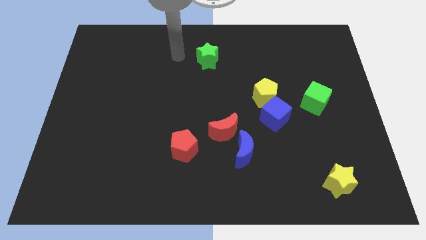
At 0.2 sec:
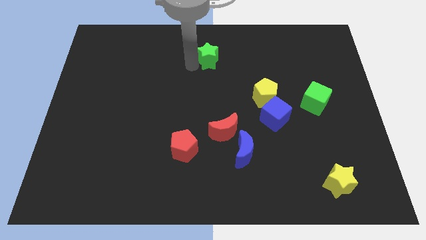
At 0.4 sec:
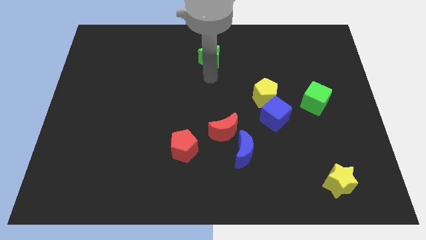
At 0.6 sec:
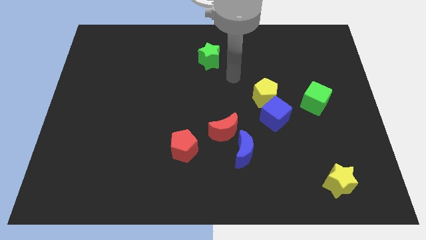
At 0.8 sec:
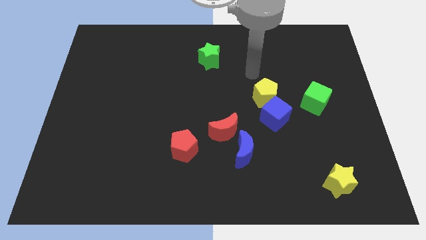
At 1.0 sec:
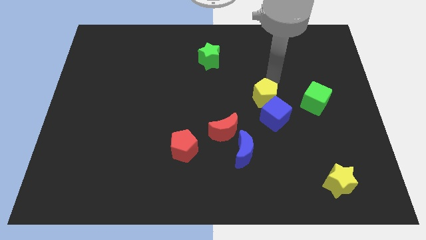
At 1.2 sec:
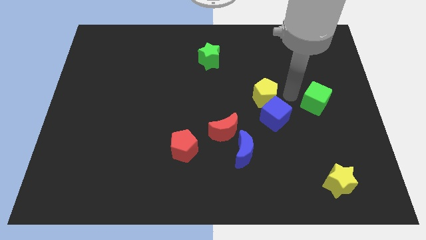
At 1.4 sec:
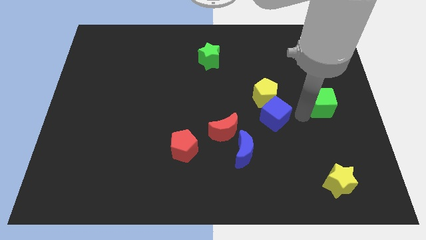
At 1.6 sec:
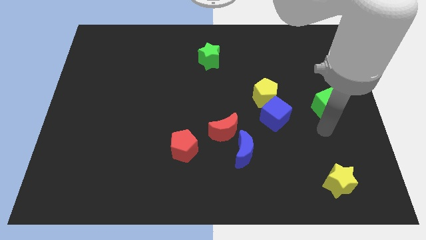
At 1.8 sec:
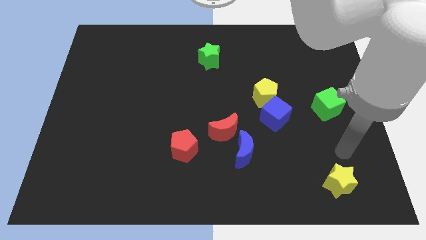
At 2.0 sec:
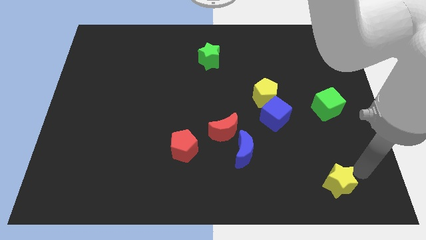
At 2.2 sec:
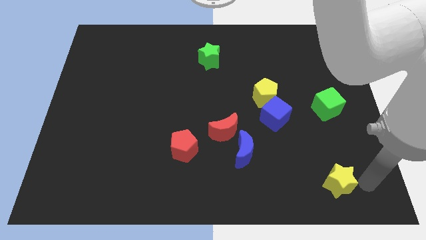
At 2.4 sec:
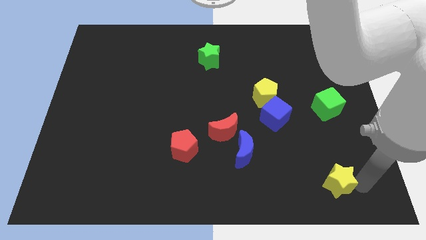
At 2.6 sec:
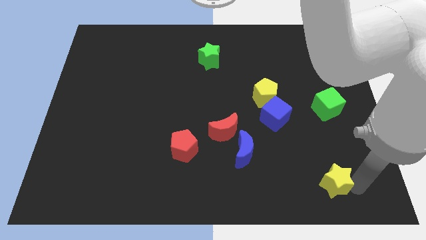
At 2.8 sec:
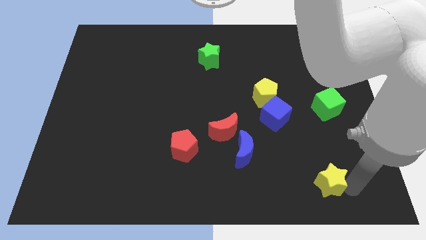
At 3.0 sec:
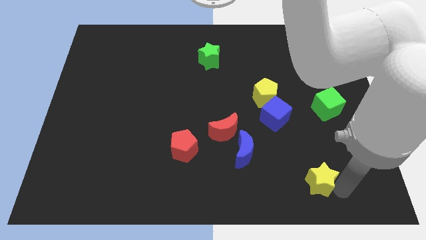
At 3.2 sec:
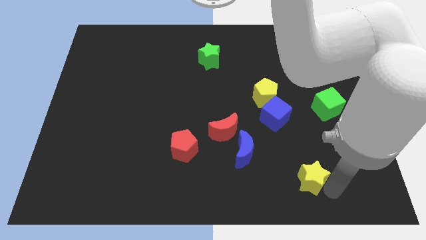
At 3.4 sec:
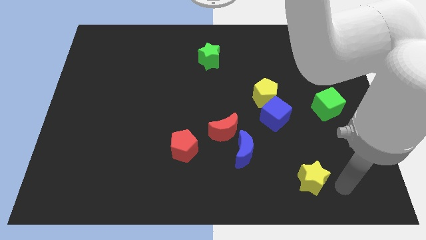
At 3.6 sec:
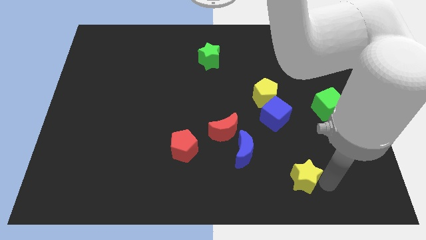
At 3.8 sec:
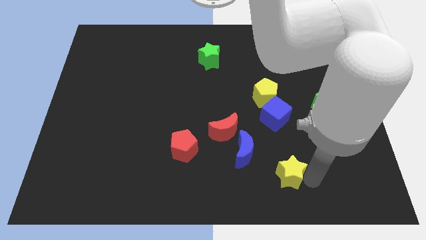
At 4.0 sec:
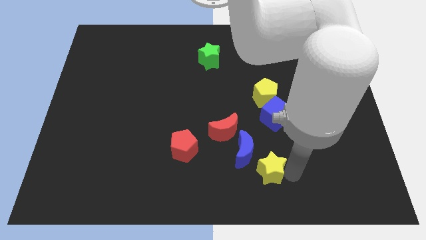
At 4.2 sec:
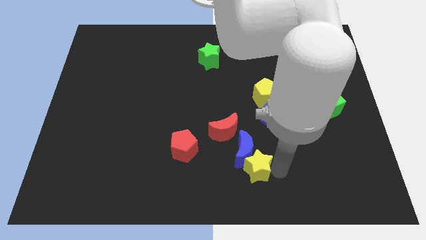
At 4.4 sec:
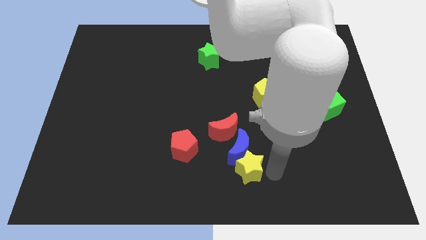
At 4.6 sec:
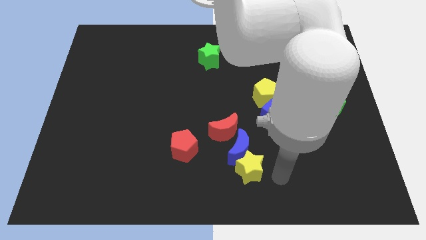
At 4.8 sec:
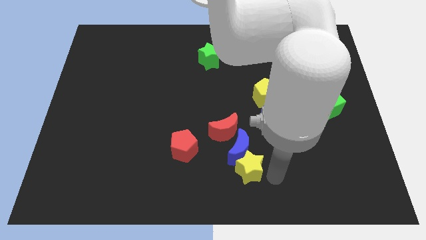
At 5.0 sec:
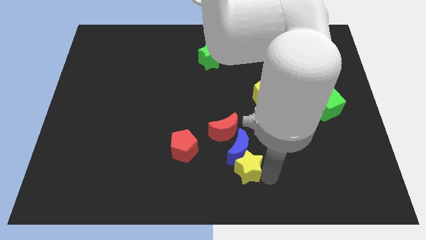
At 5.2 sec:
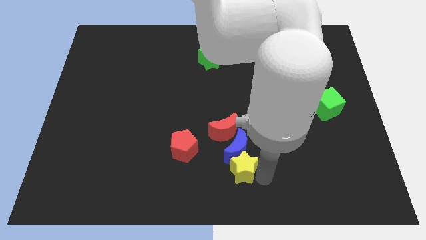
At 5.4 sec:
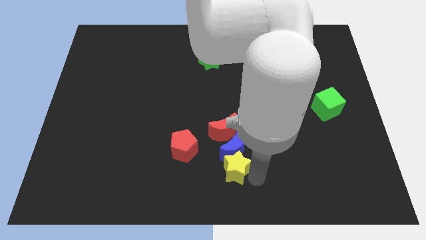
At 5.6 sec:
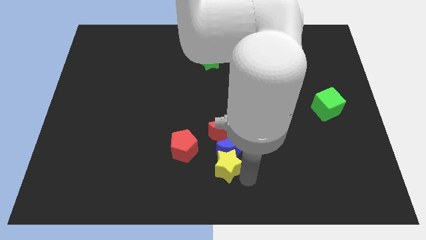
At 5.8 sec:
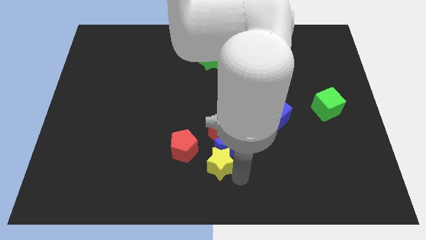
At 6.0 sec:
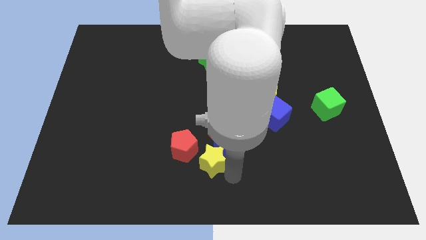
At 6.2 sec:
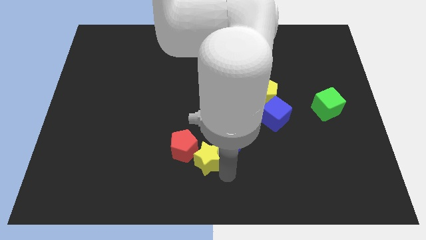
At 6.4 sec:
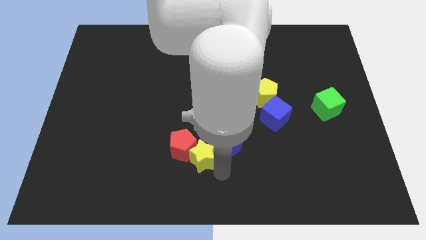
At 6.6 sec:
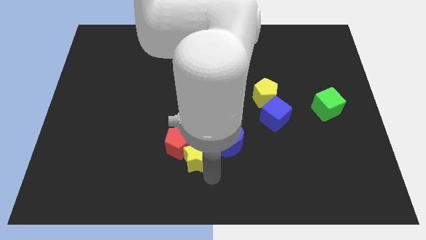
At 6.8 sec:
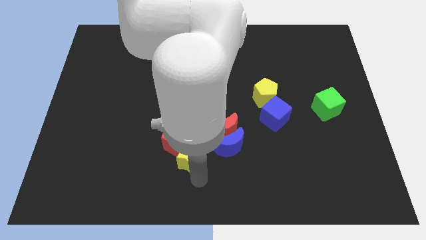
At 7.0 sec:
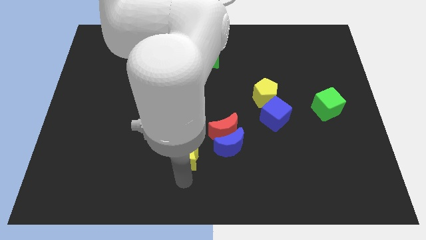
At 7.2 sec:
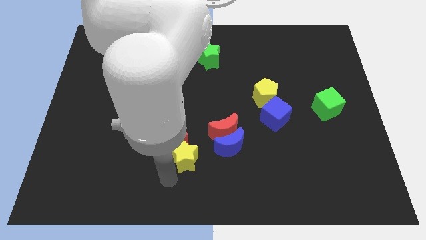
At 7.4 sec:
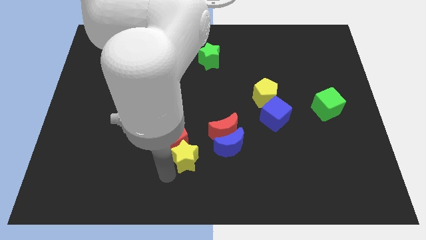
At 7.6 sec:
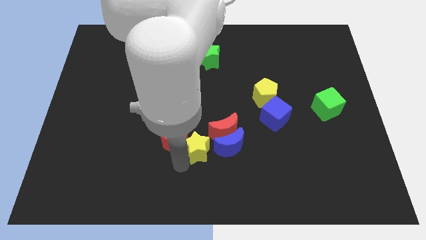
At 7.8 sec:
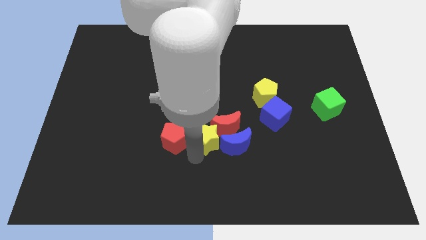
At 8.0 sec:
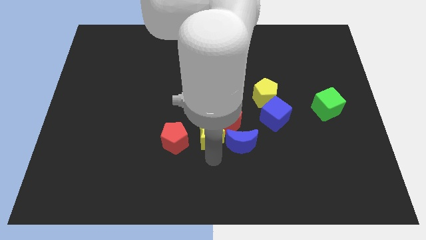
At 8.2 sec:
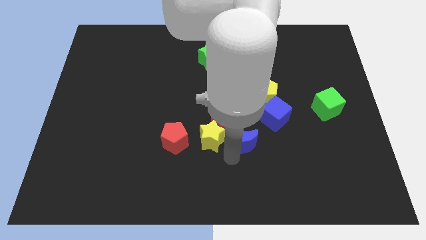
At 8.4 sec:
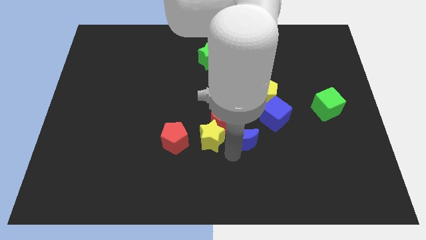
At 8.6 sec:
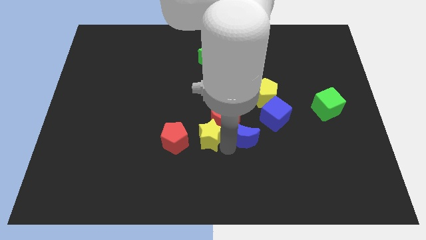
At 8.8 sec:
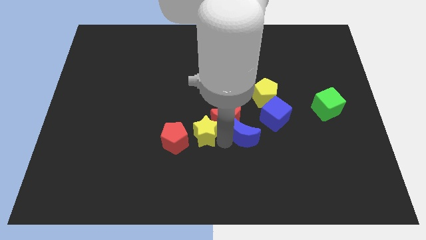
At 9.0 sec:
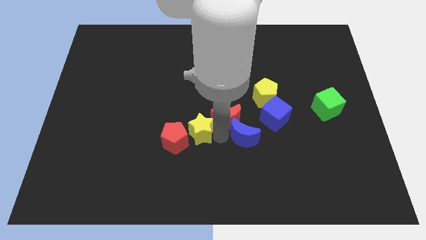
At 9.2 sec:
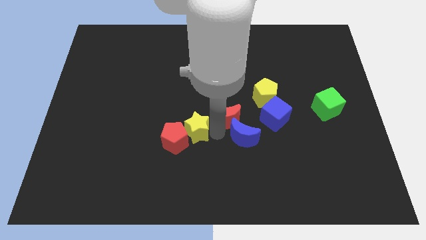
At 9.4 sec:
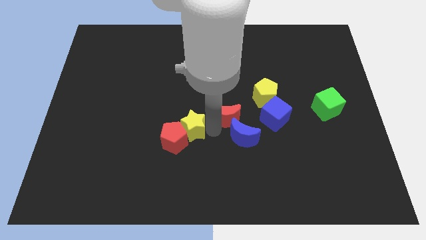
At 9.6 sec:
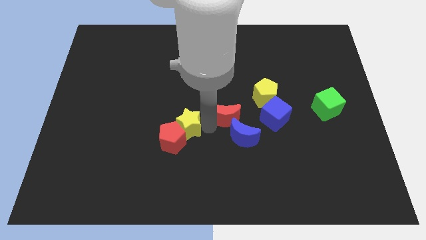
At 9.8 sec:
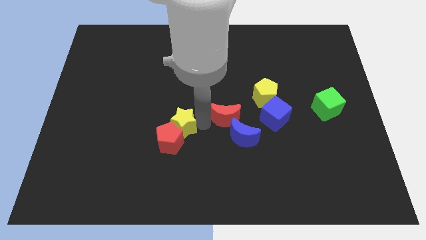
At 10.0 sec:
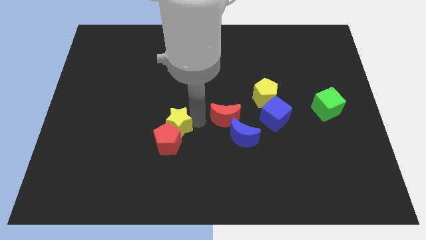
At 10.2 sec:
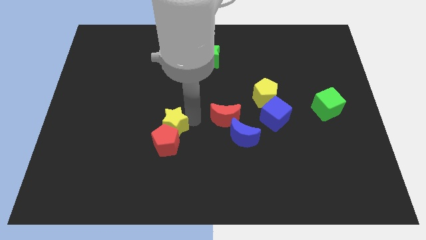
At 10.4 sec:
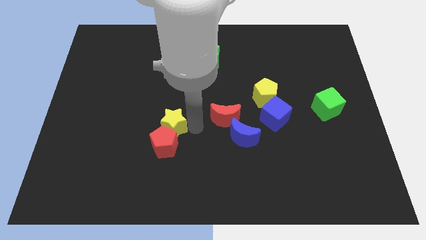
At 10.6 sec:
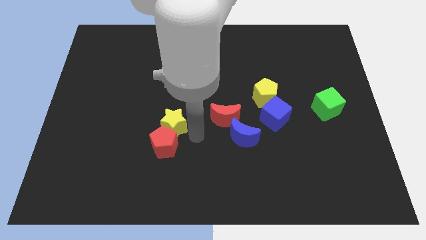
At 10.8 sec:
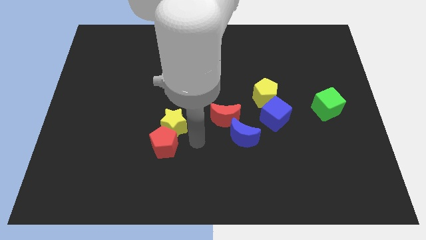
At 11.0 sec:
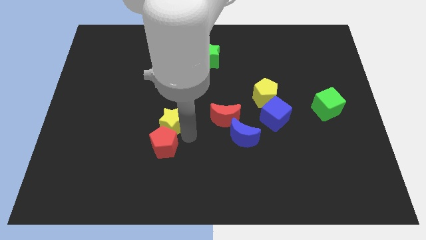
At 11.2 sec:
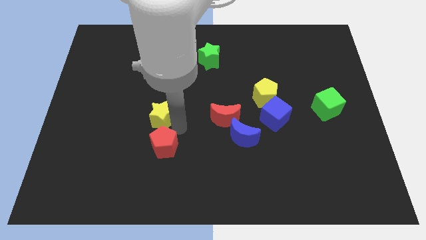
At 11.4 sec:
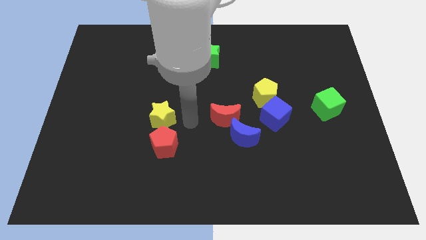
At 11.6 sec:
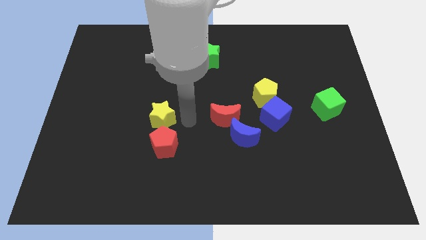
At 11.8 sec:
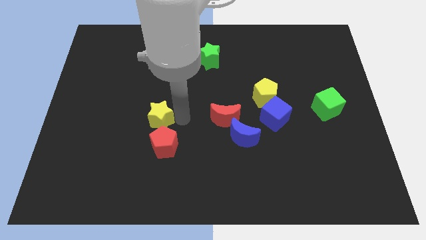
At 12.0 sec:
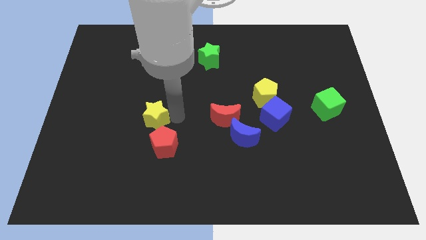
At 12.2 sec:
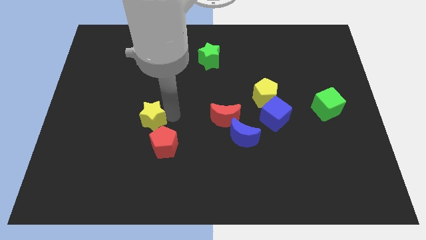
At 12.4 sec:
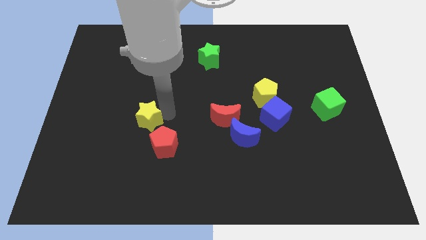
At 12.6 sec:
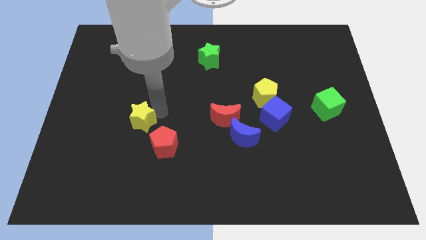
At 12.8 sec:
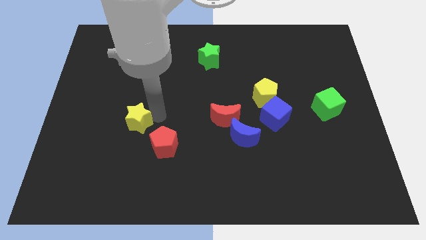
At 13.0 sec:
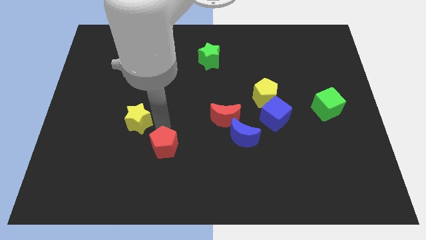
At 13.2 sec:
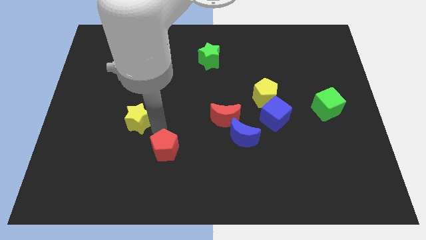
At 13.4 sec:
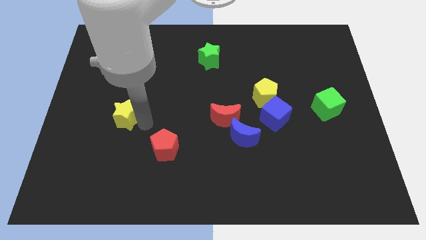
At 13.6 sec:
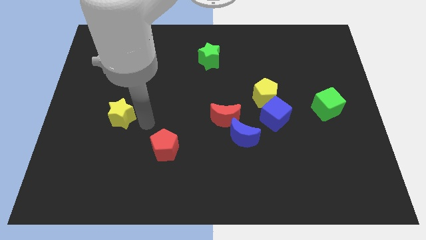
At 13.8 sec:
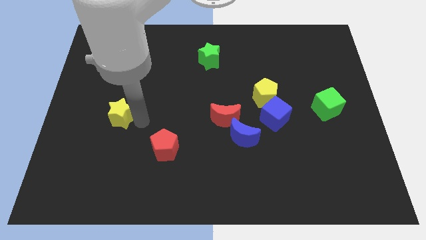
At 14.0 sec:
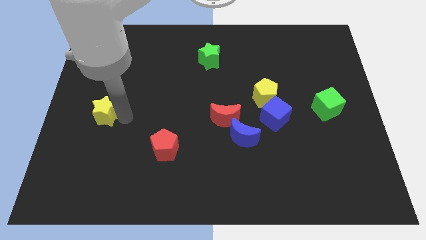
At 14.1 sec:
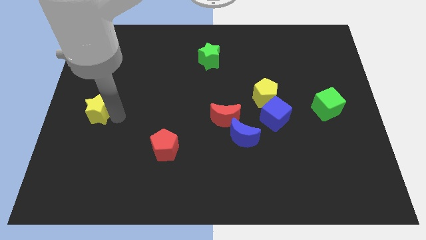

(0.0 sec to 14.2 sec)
put the yellow star to the left side
